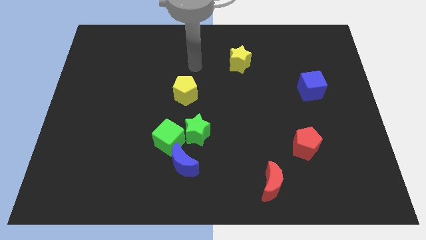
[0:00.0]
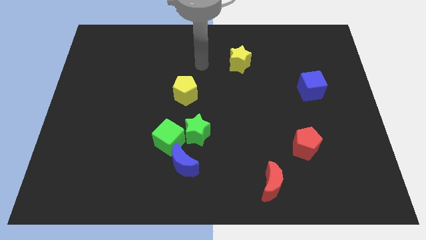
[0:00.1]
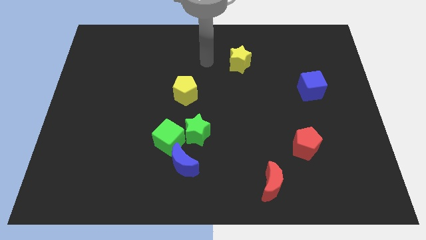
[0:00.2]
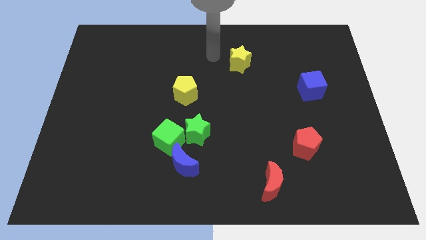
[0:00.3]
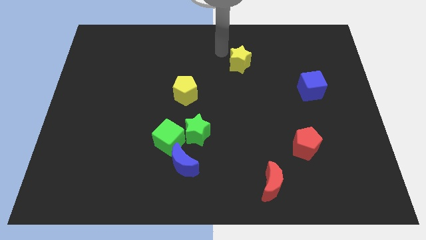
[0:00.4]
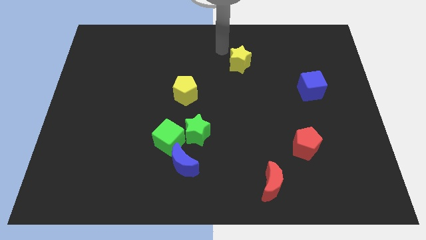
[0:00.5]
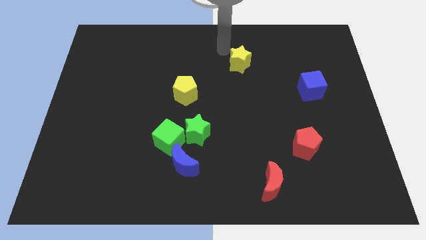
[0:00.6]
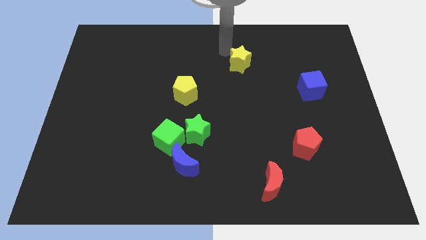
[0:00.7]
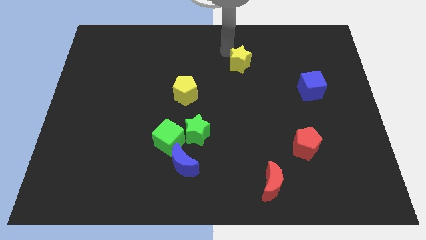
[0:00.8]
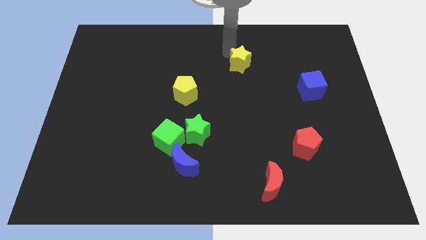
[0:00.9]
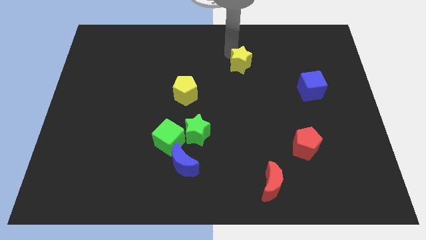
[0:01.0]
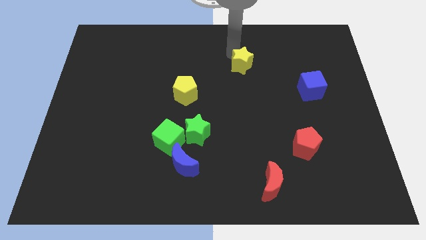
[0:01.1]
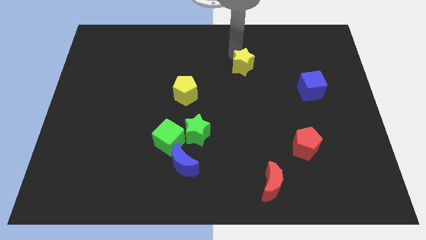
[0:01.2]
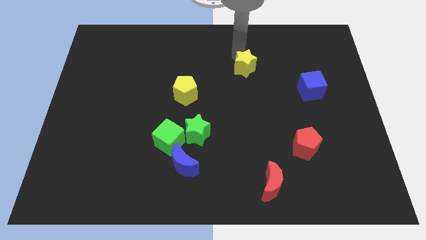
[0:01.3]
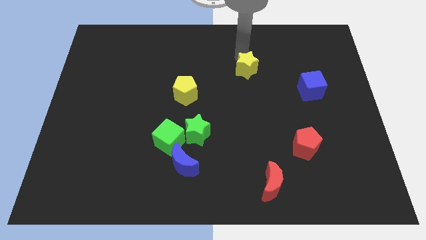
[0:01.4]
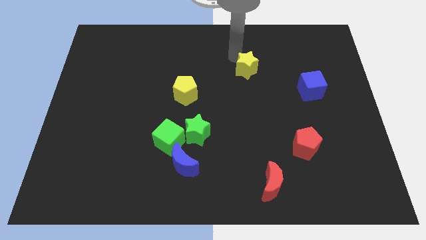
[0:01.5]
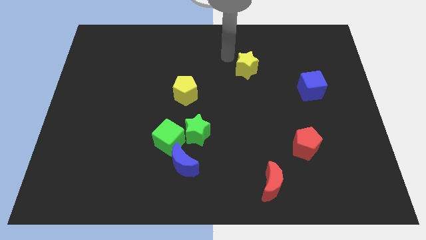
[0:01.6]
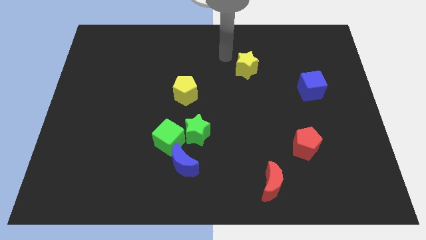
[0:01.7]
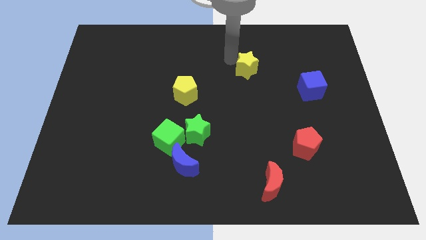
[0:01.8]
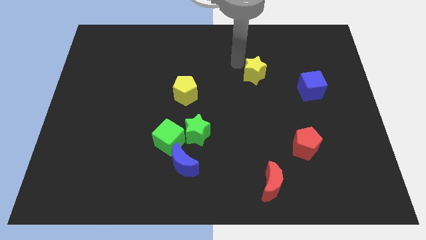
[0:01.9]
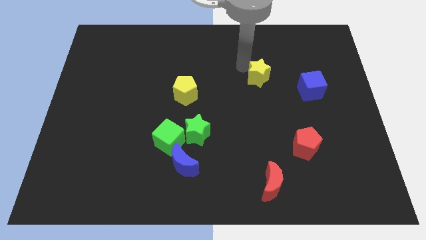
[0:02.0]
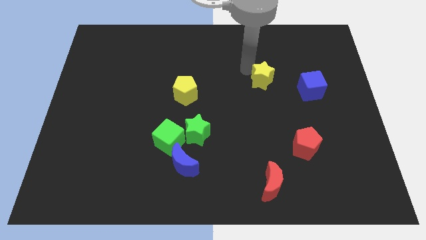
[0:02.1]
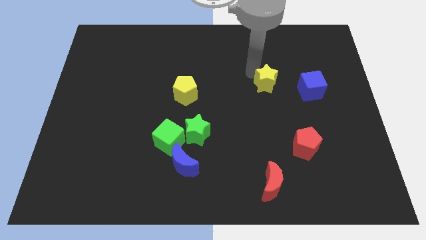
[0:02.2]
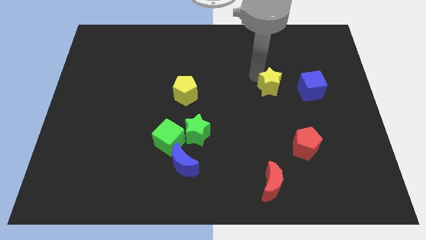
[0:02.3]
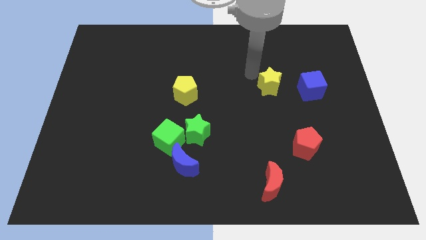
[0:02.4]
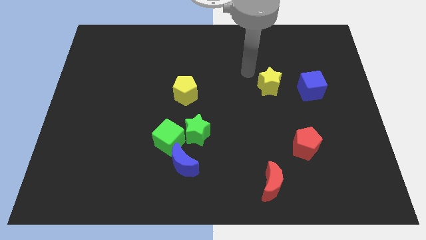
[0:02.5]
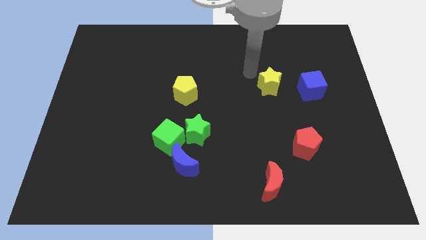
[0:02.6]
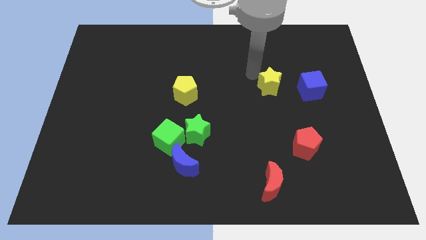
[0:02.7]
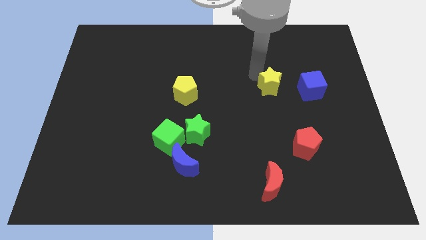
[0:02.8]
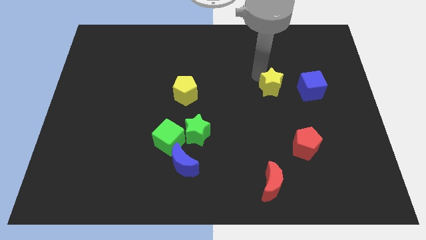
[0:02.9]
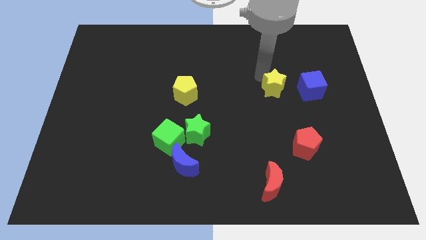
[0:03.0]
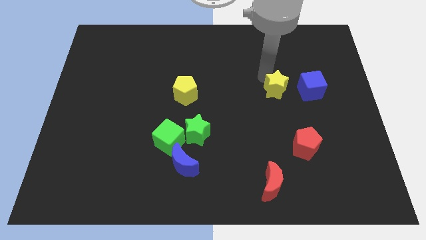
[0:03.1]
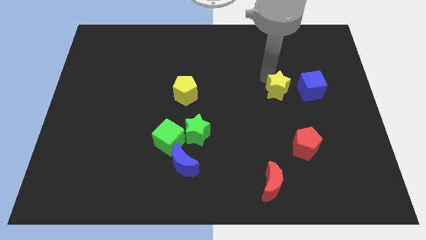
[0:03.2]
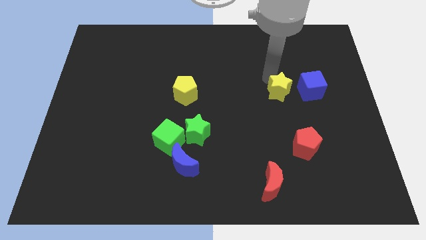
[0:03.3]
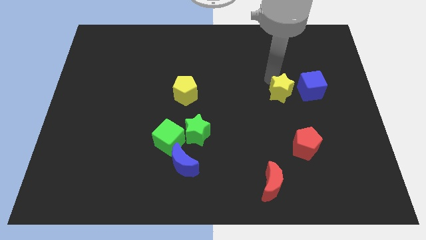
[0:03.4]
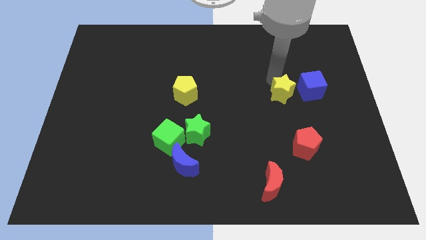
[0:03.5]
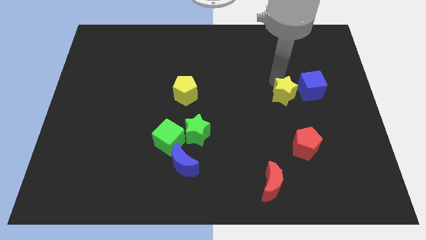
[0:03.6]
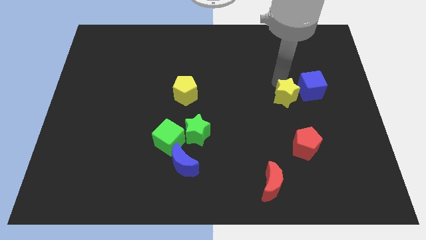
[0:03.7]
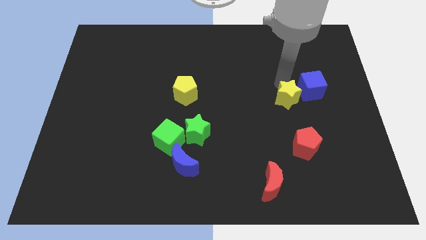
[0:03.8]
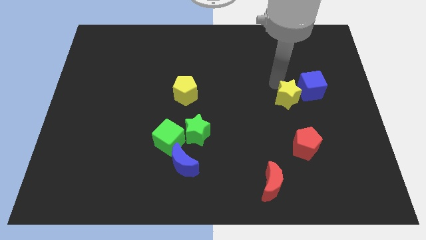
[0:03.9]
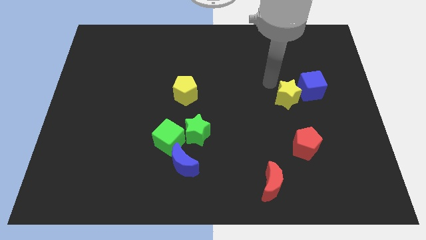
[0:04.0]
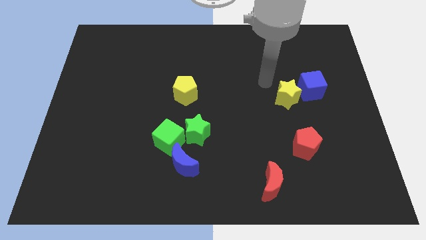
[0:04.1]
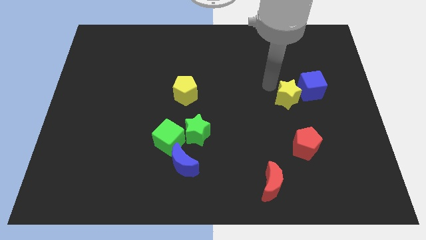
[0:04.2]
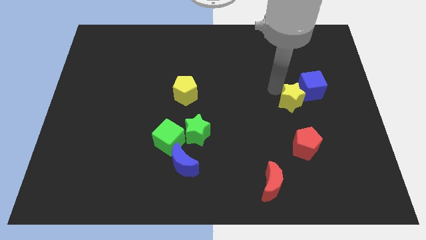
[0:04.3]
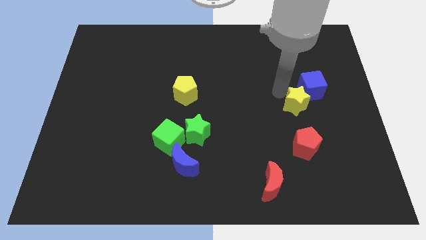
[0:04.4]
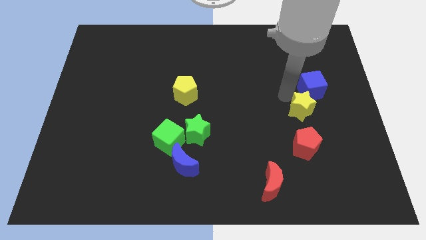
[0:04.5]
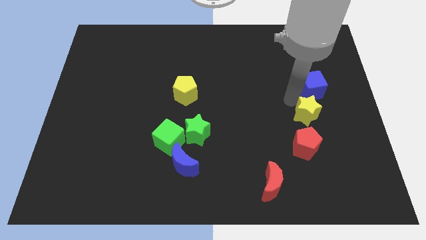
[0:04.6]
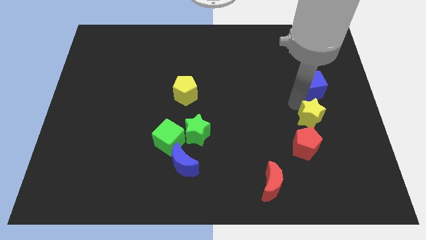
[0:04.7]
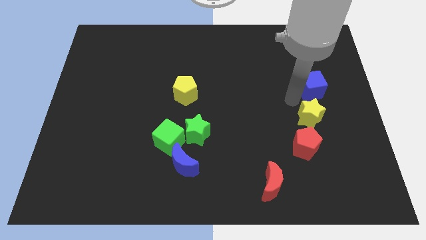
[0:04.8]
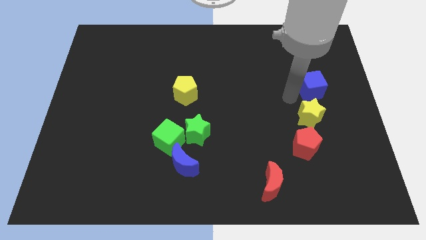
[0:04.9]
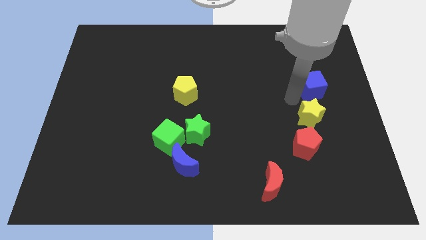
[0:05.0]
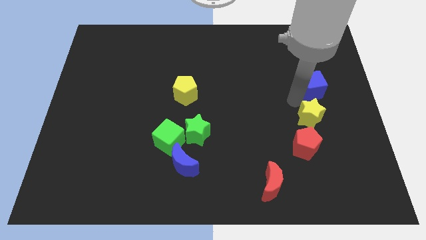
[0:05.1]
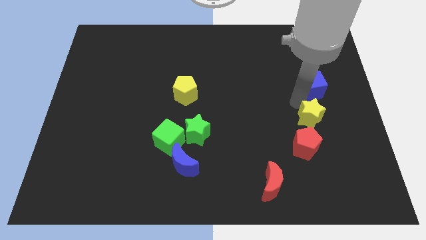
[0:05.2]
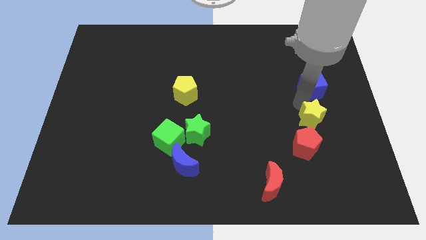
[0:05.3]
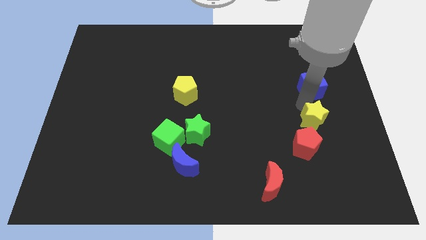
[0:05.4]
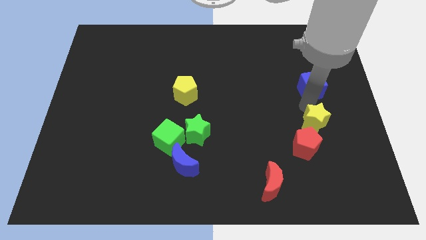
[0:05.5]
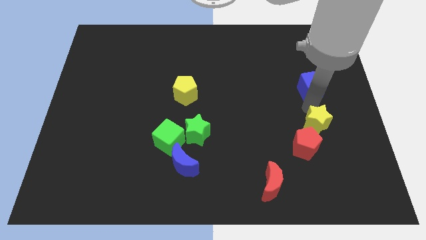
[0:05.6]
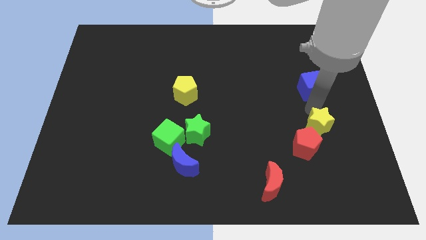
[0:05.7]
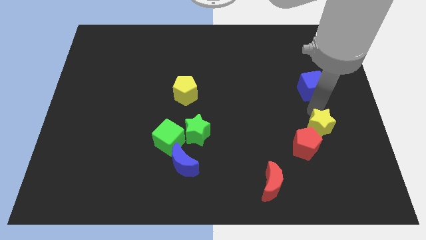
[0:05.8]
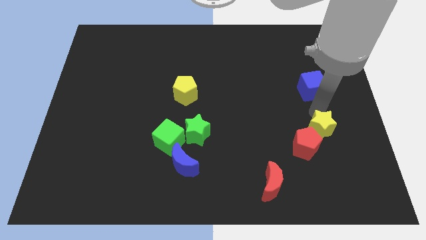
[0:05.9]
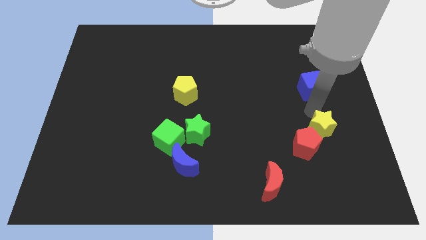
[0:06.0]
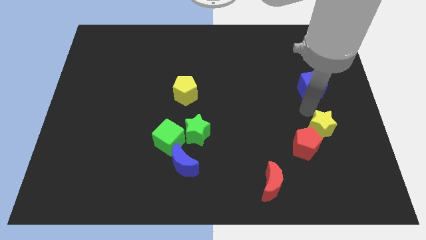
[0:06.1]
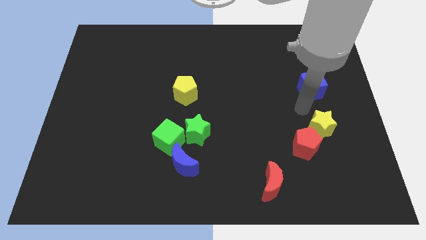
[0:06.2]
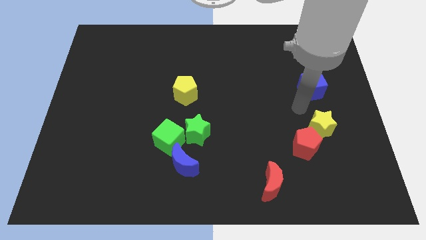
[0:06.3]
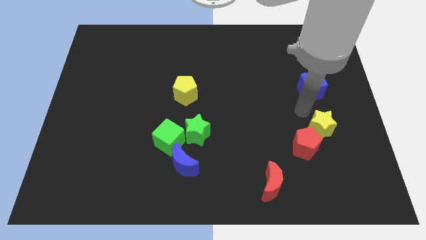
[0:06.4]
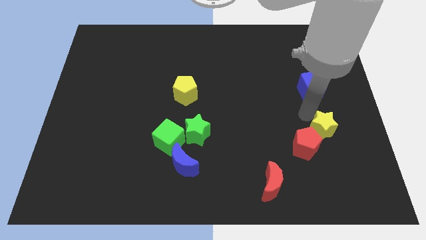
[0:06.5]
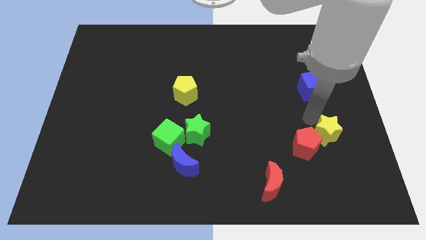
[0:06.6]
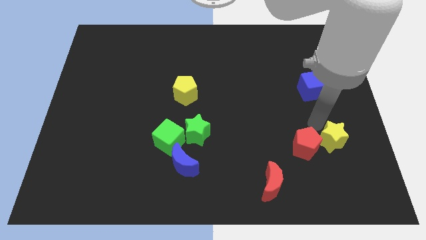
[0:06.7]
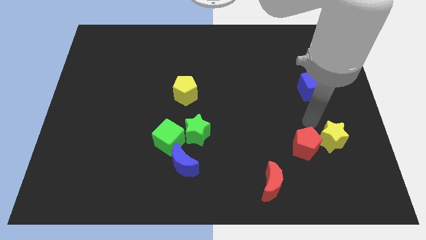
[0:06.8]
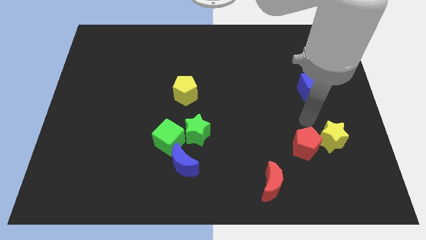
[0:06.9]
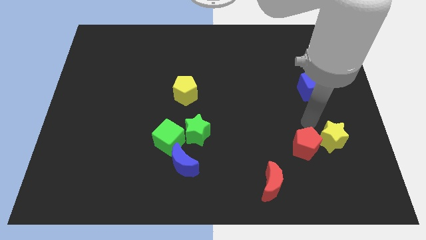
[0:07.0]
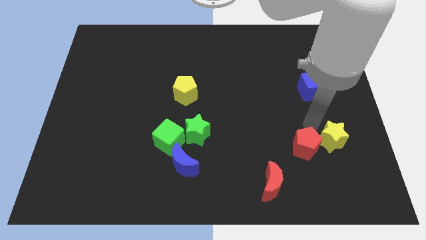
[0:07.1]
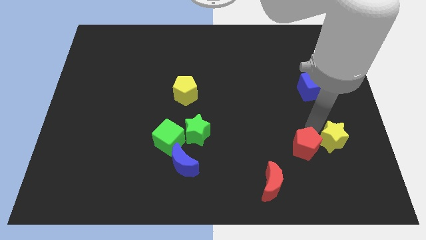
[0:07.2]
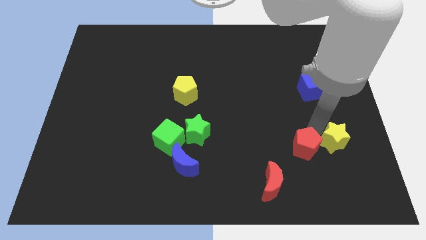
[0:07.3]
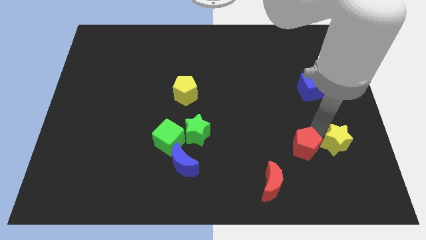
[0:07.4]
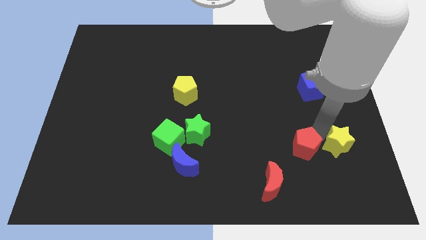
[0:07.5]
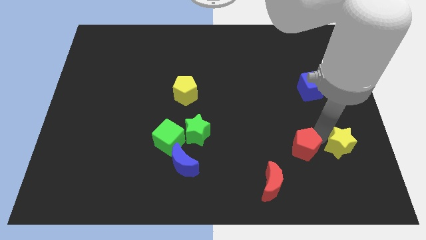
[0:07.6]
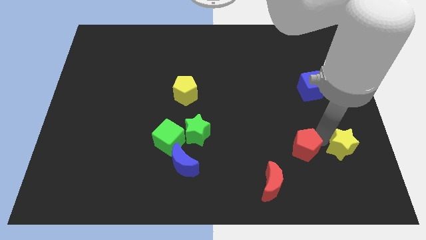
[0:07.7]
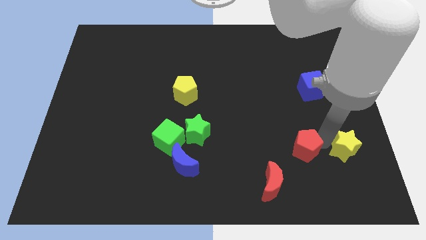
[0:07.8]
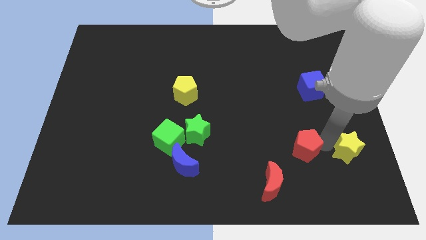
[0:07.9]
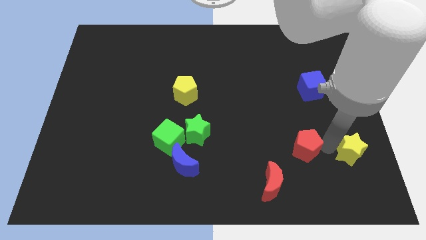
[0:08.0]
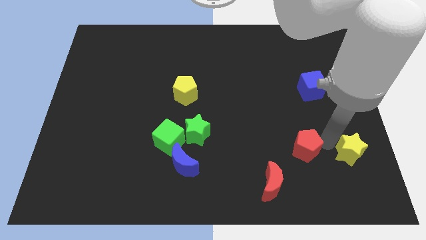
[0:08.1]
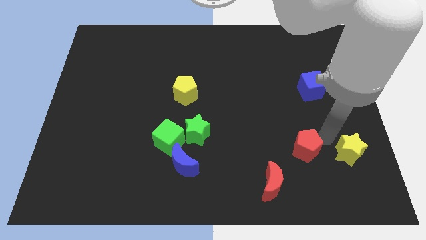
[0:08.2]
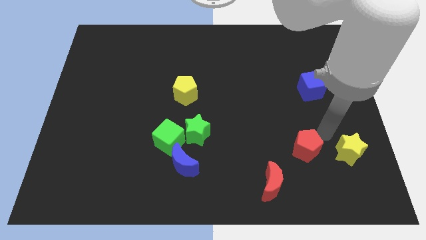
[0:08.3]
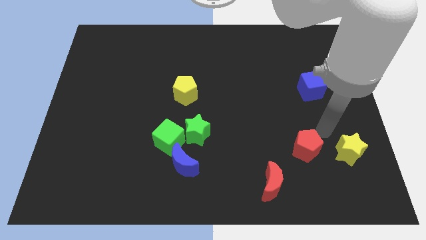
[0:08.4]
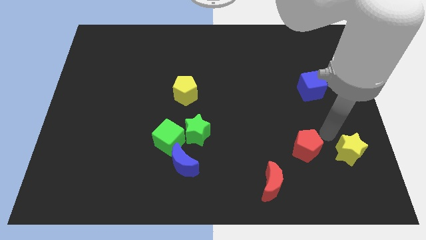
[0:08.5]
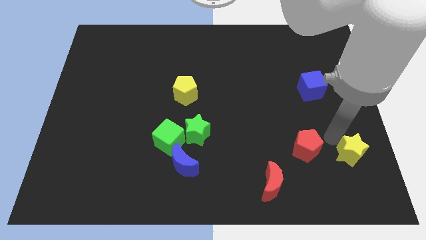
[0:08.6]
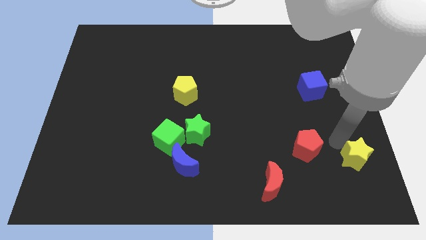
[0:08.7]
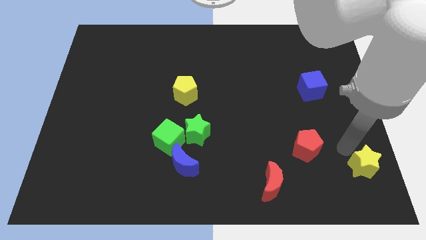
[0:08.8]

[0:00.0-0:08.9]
put the yellow star to the lower right corner
